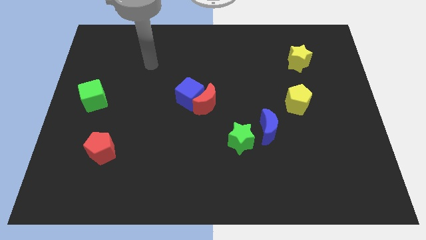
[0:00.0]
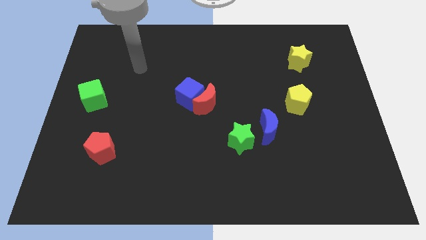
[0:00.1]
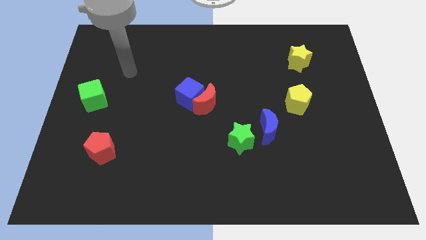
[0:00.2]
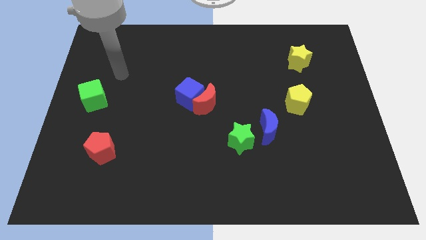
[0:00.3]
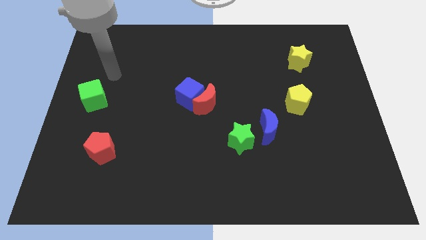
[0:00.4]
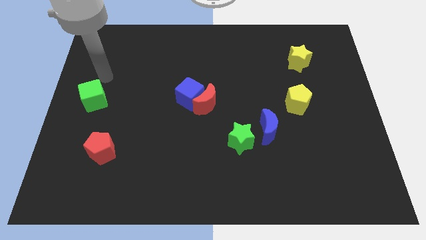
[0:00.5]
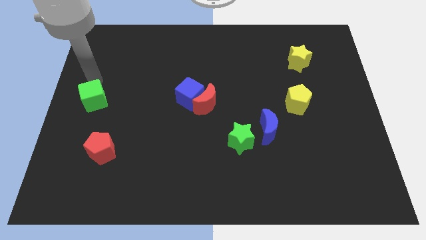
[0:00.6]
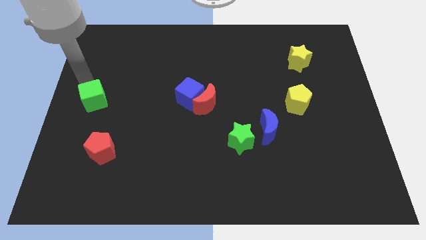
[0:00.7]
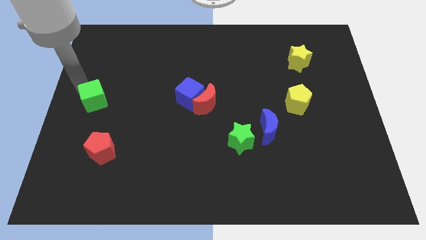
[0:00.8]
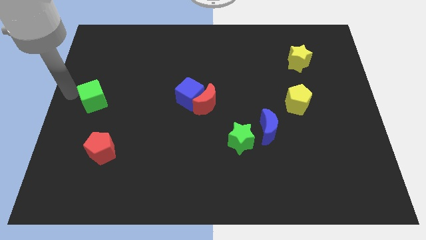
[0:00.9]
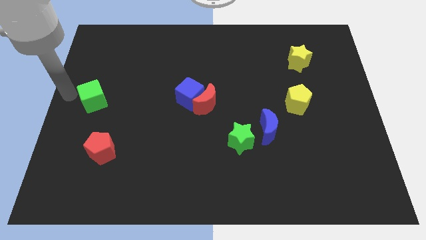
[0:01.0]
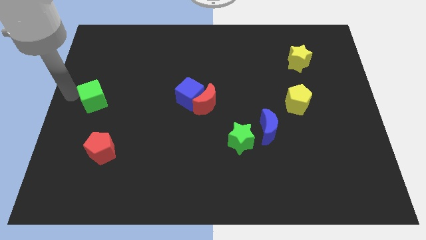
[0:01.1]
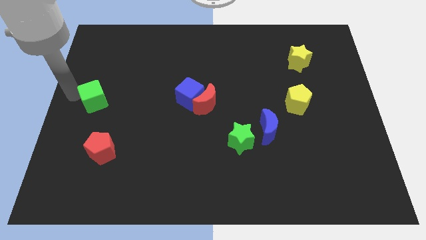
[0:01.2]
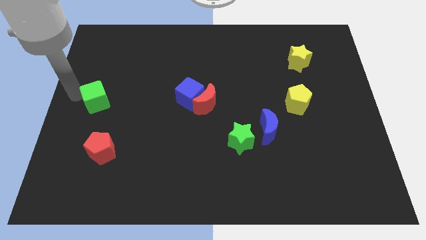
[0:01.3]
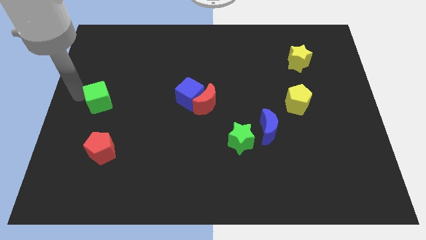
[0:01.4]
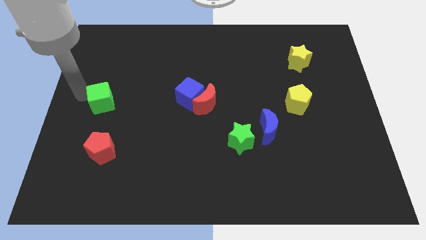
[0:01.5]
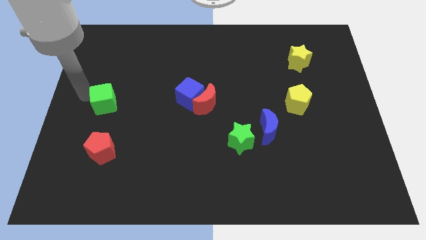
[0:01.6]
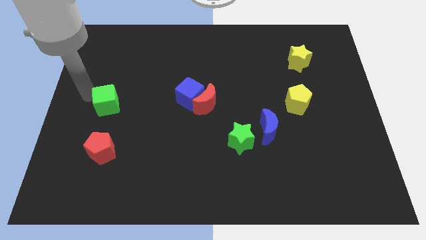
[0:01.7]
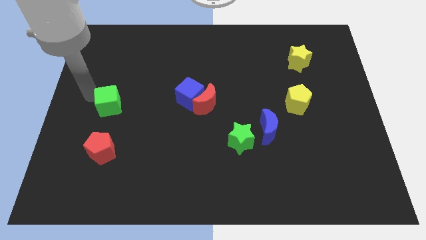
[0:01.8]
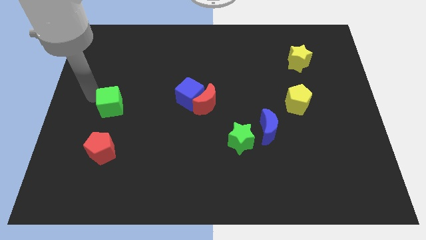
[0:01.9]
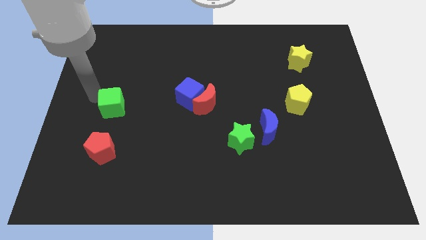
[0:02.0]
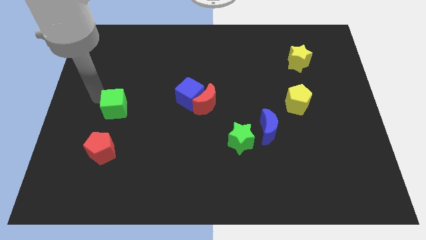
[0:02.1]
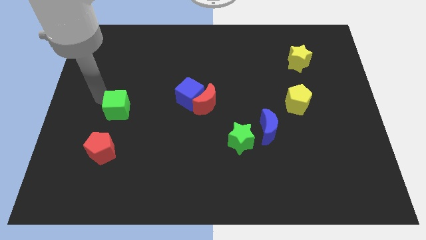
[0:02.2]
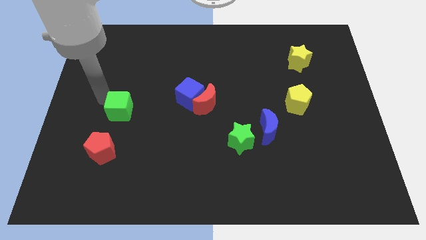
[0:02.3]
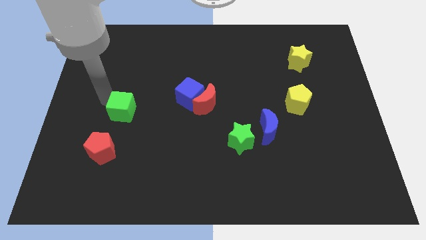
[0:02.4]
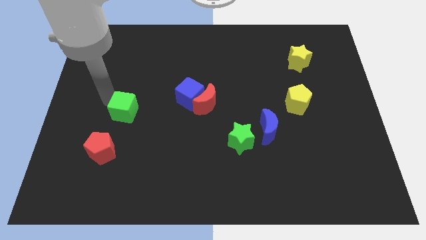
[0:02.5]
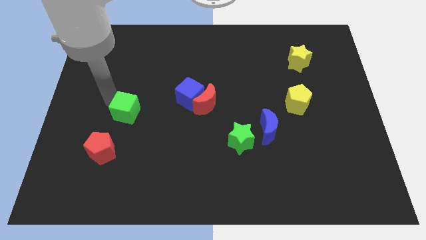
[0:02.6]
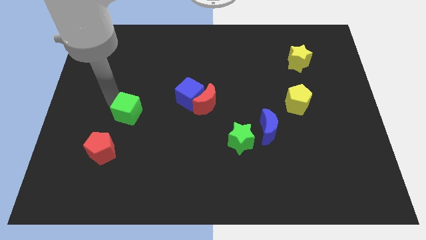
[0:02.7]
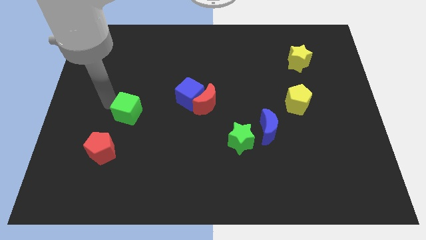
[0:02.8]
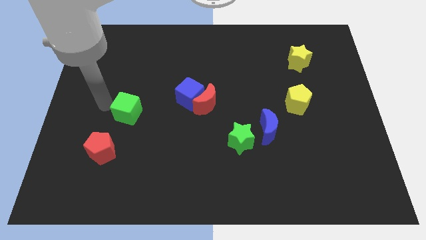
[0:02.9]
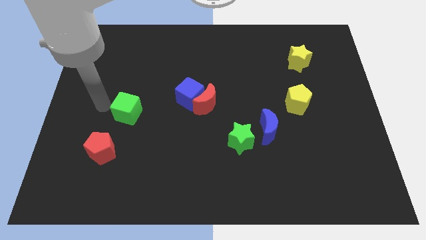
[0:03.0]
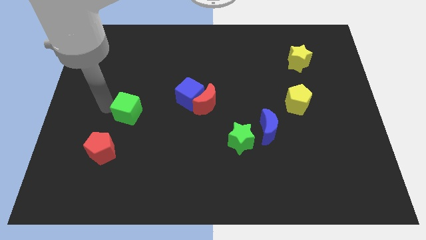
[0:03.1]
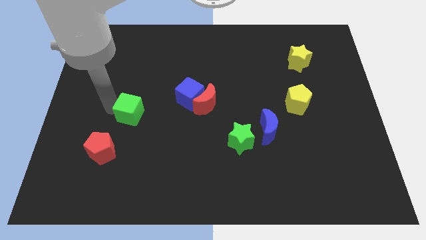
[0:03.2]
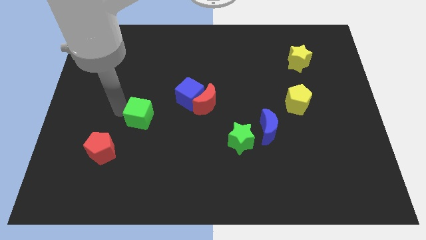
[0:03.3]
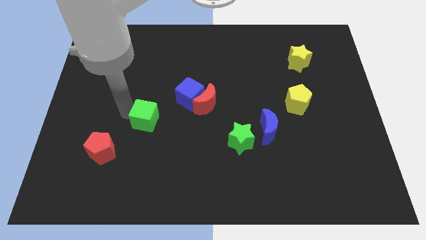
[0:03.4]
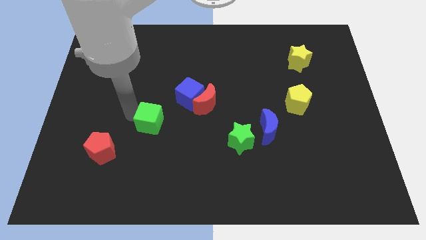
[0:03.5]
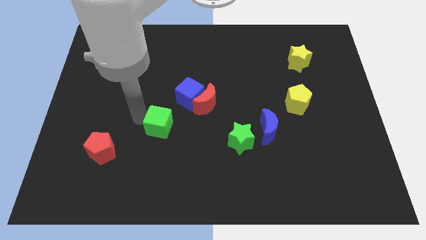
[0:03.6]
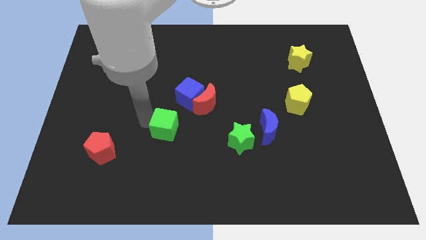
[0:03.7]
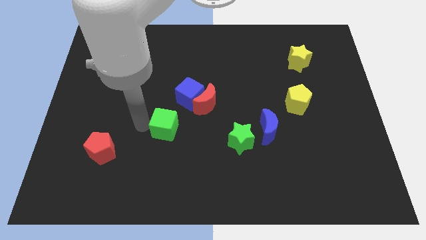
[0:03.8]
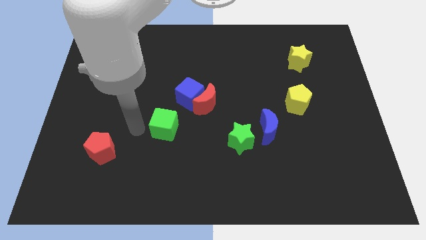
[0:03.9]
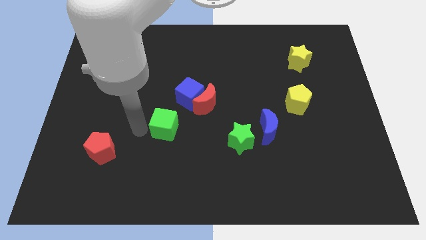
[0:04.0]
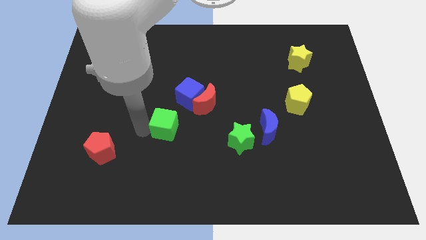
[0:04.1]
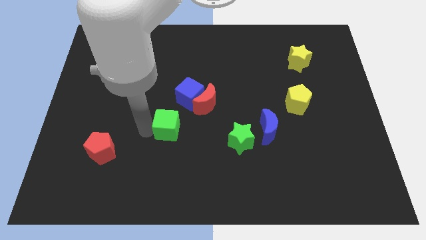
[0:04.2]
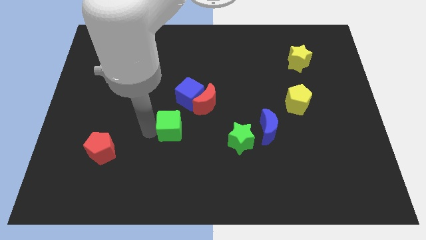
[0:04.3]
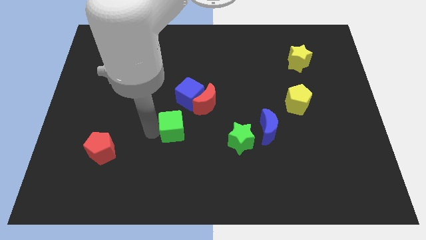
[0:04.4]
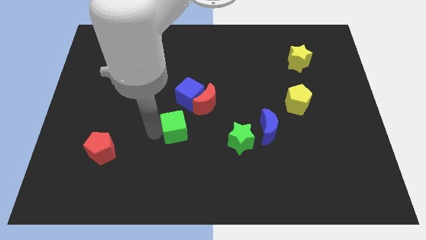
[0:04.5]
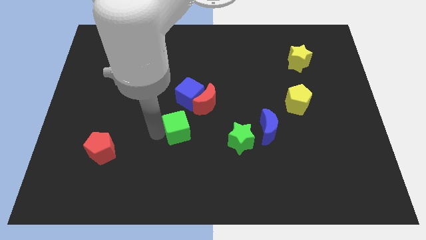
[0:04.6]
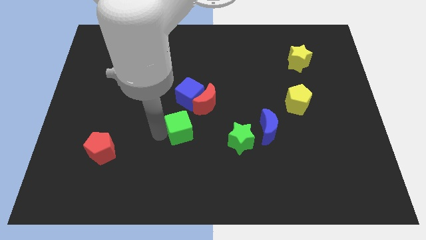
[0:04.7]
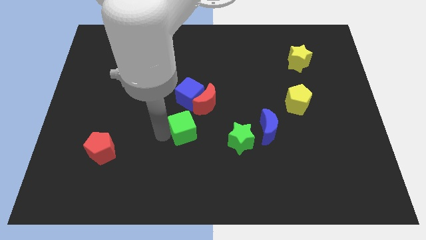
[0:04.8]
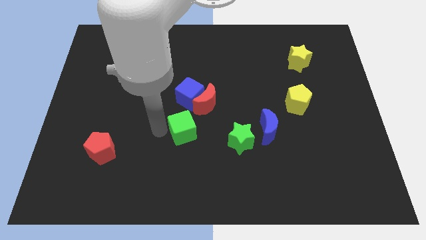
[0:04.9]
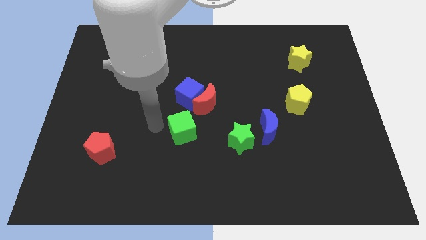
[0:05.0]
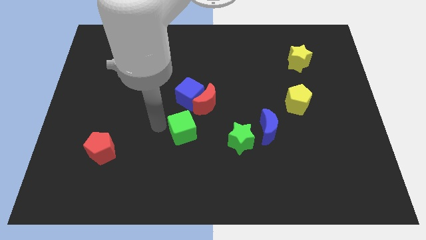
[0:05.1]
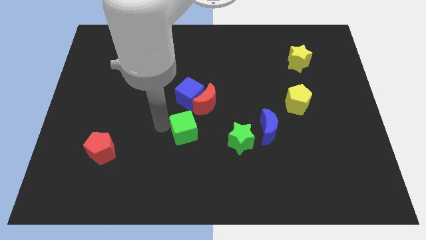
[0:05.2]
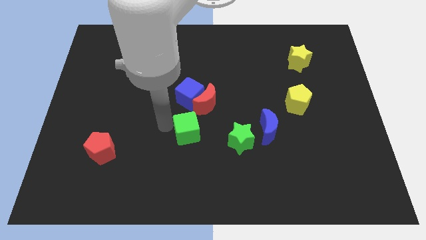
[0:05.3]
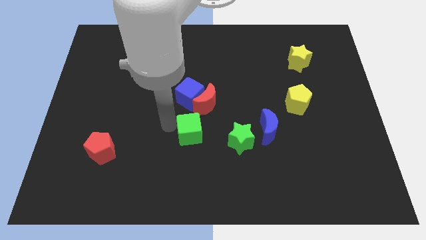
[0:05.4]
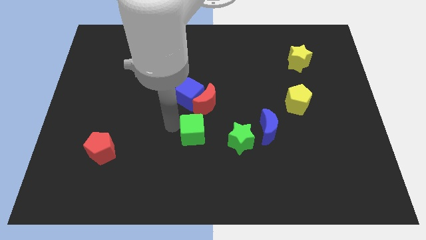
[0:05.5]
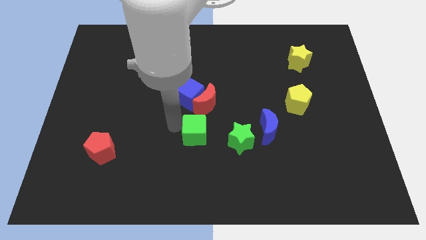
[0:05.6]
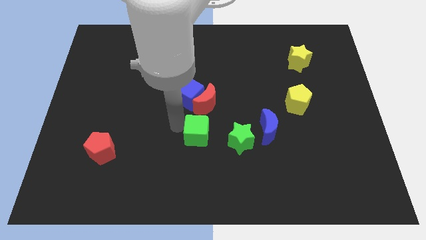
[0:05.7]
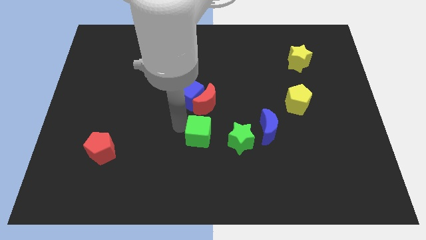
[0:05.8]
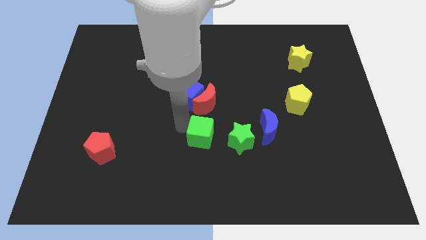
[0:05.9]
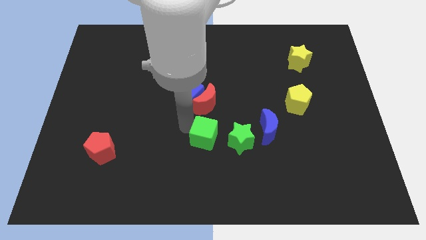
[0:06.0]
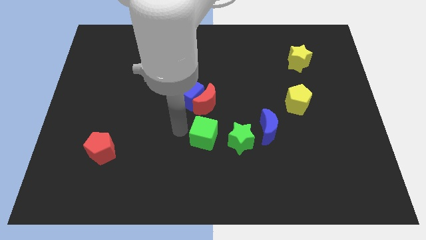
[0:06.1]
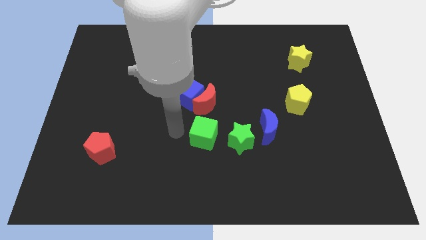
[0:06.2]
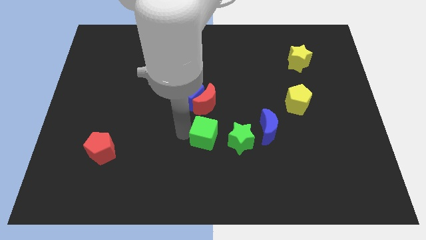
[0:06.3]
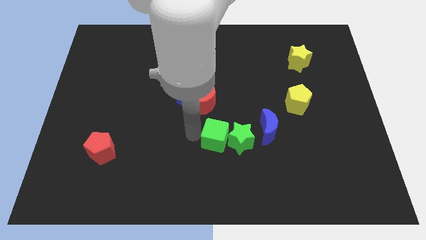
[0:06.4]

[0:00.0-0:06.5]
push the green cube towards the green star

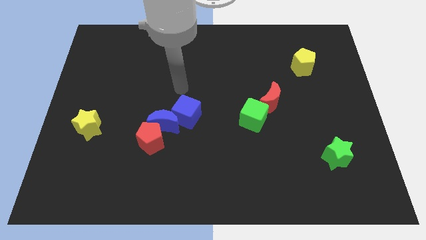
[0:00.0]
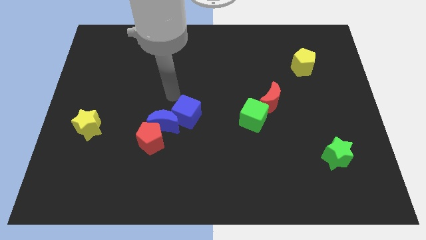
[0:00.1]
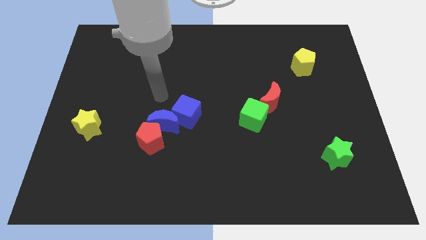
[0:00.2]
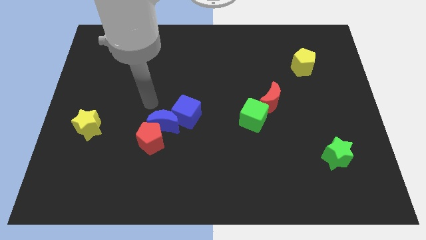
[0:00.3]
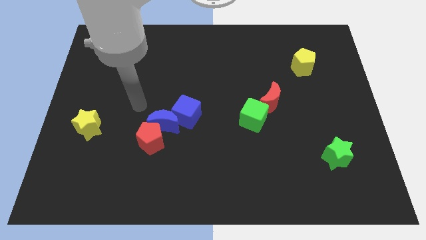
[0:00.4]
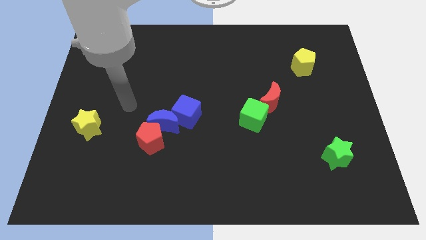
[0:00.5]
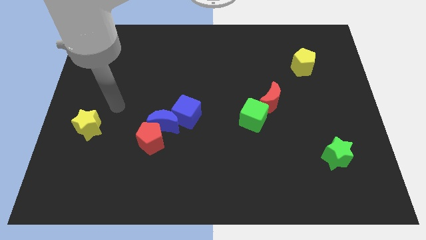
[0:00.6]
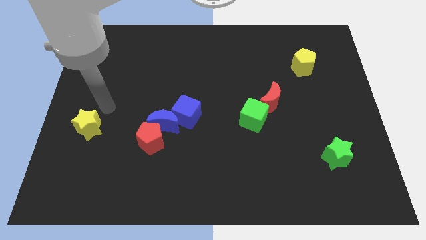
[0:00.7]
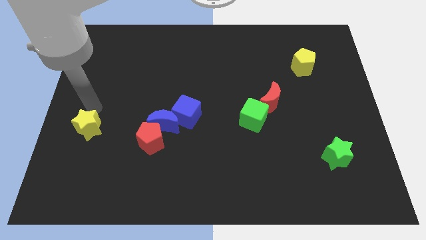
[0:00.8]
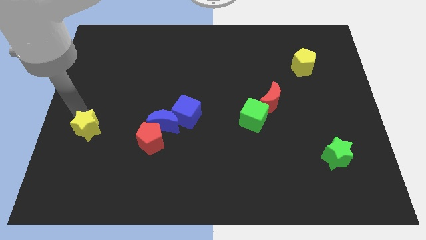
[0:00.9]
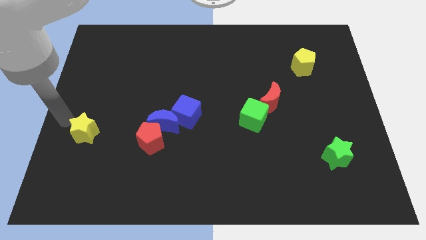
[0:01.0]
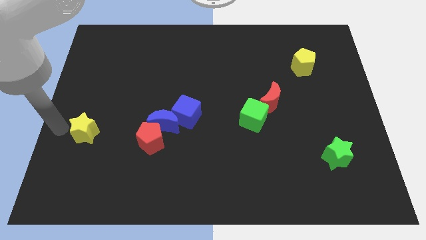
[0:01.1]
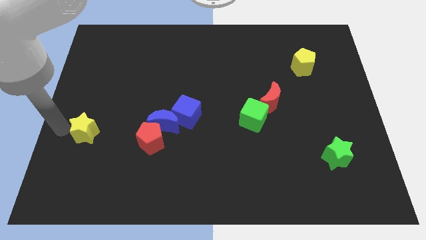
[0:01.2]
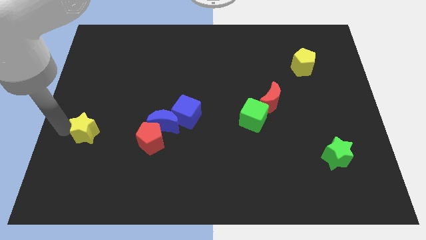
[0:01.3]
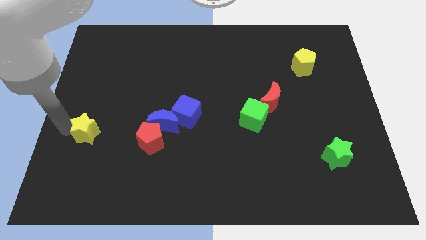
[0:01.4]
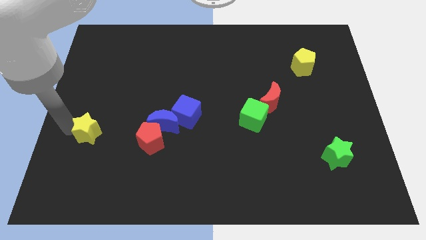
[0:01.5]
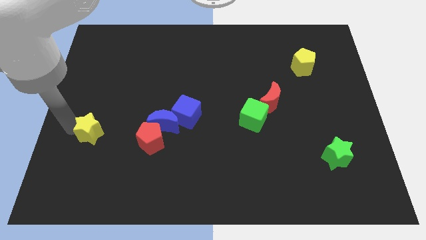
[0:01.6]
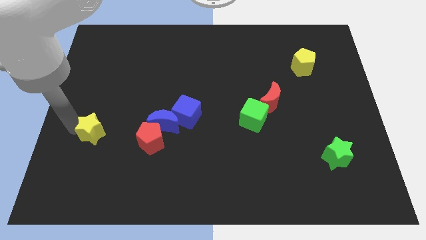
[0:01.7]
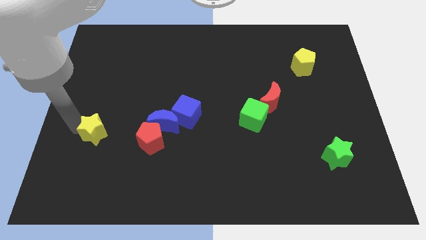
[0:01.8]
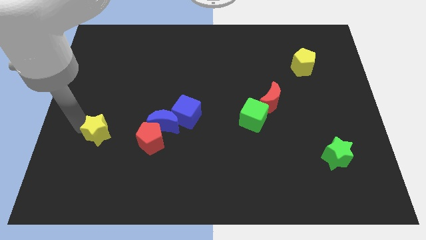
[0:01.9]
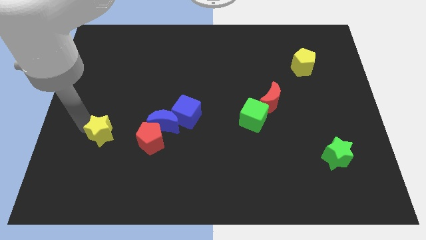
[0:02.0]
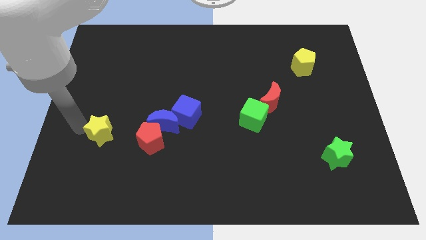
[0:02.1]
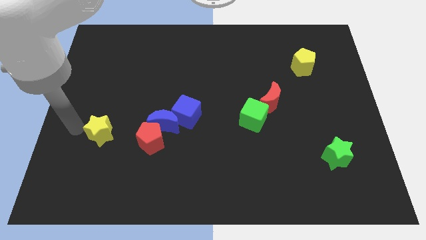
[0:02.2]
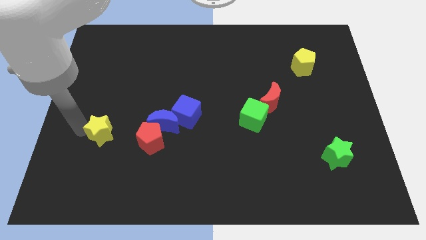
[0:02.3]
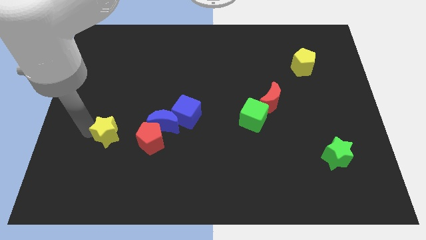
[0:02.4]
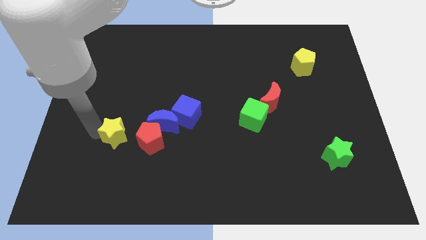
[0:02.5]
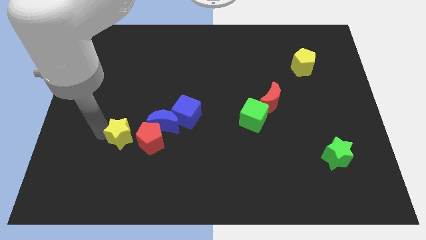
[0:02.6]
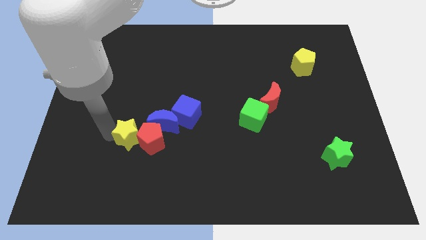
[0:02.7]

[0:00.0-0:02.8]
put the yellow star next to the red pentagon
